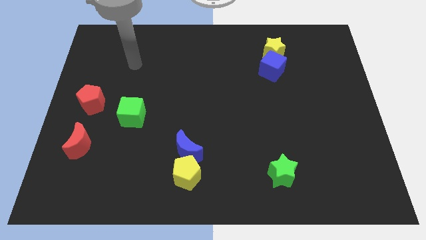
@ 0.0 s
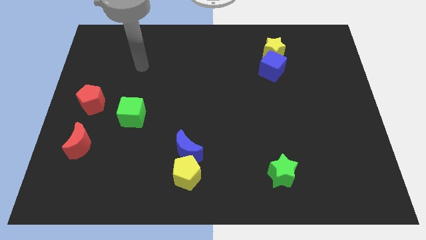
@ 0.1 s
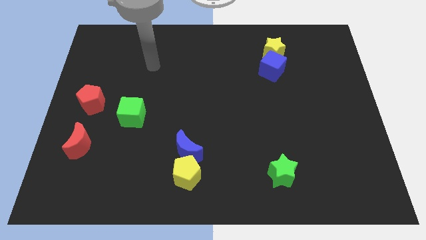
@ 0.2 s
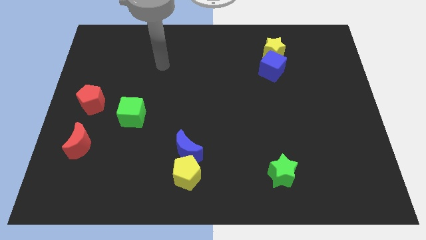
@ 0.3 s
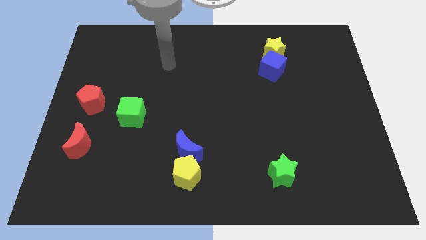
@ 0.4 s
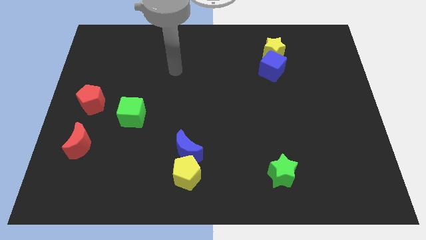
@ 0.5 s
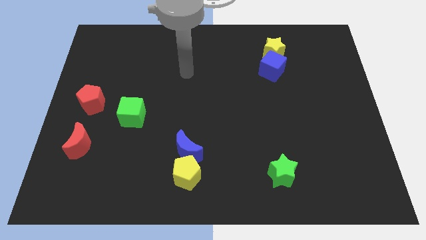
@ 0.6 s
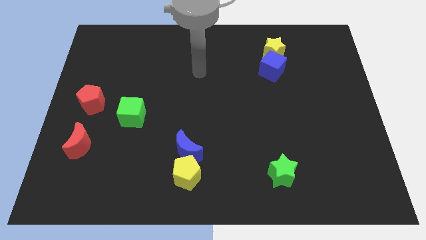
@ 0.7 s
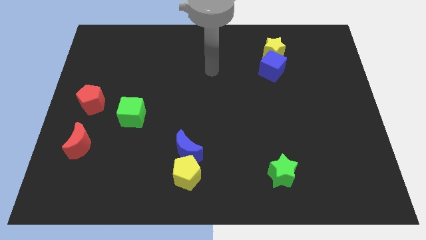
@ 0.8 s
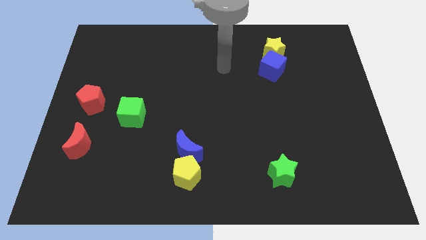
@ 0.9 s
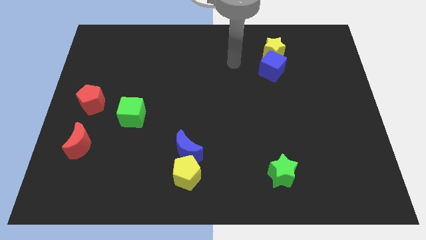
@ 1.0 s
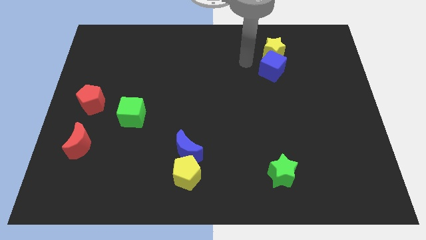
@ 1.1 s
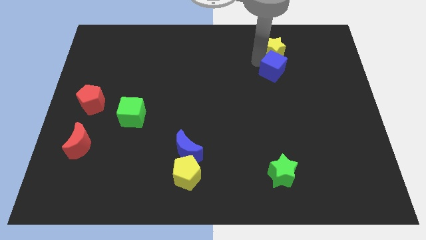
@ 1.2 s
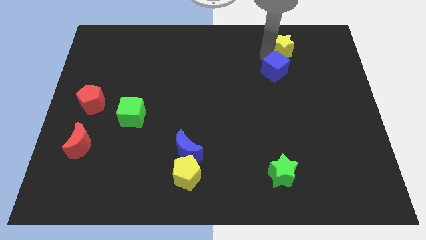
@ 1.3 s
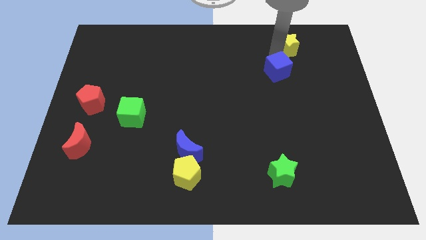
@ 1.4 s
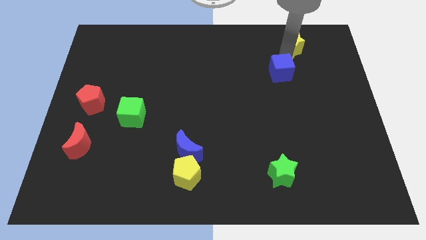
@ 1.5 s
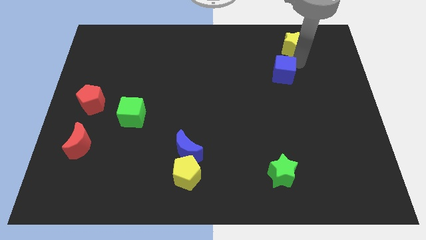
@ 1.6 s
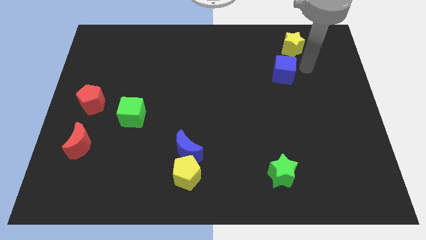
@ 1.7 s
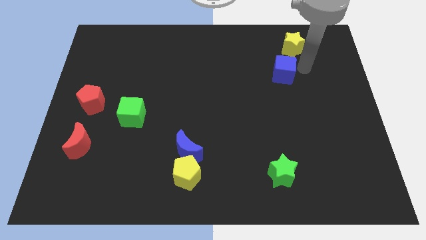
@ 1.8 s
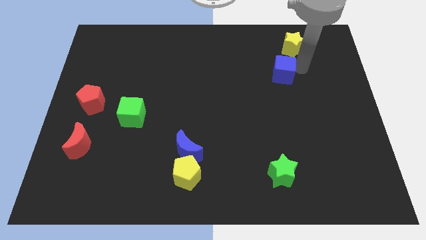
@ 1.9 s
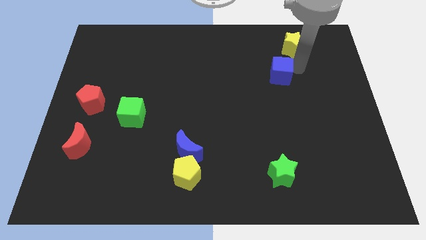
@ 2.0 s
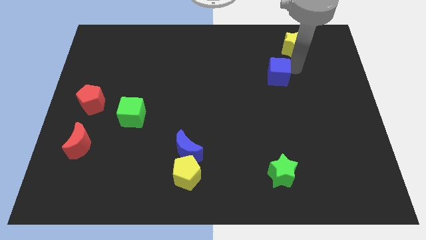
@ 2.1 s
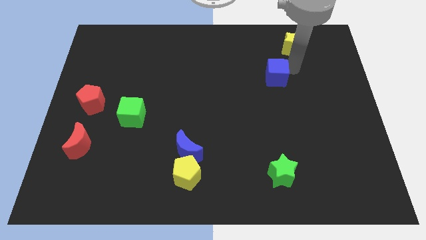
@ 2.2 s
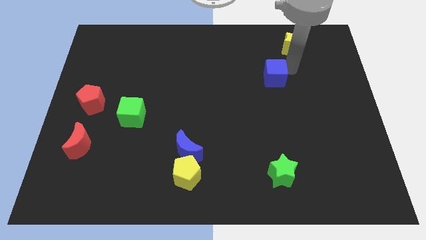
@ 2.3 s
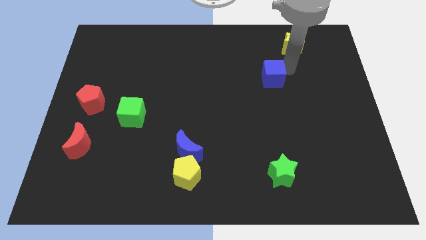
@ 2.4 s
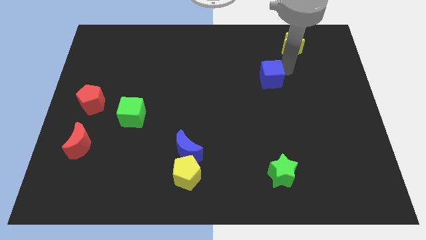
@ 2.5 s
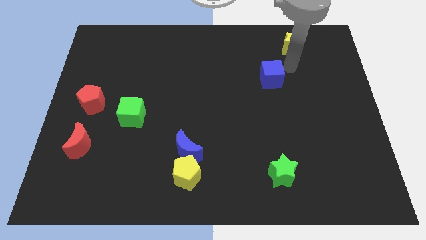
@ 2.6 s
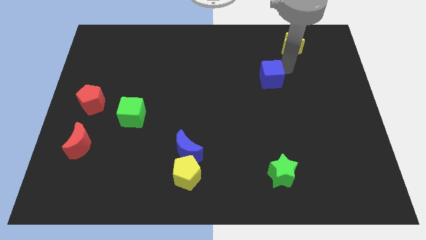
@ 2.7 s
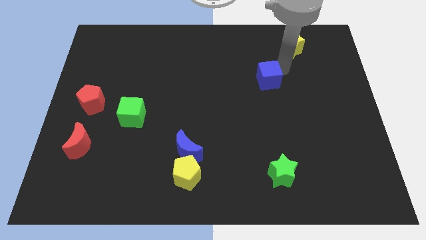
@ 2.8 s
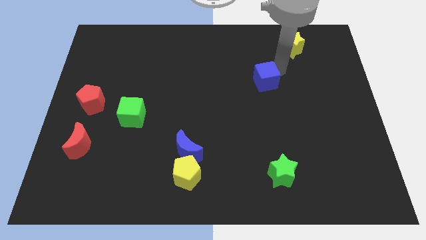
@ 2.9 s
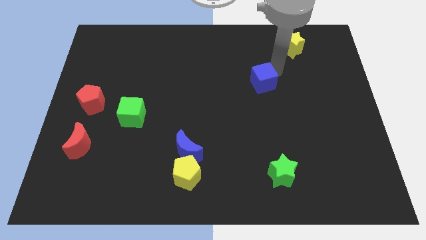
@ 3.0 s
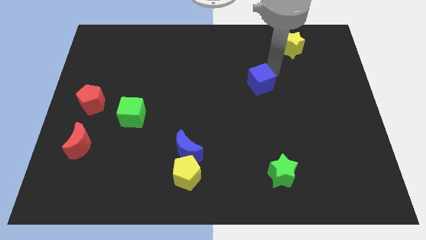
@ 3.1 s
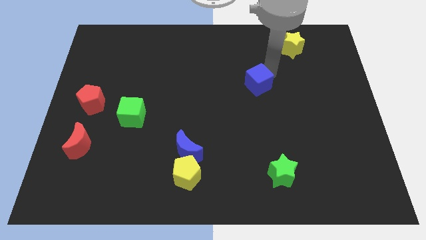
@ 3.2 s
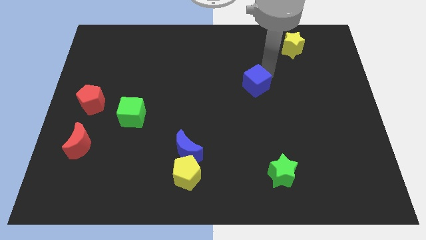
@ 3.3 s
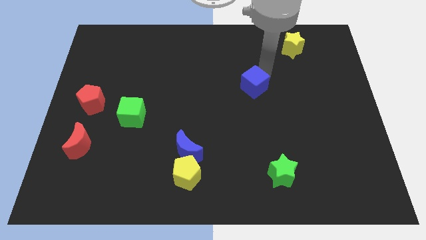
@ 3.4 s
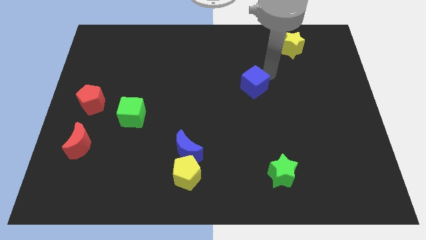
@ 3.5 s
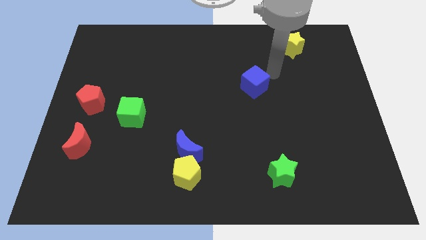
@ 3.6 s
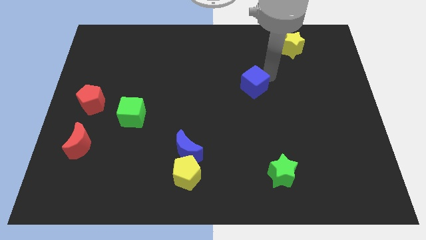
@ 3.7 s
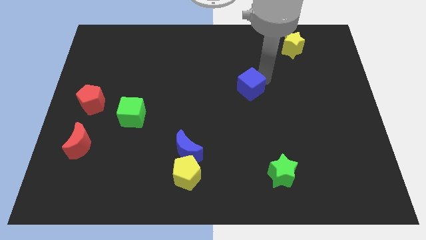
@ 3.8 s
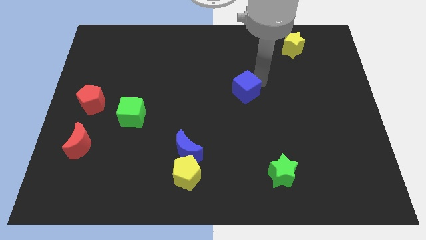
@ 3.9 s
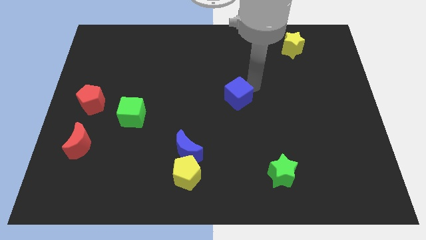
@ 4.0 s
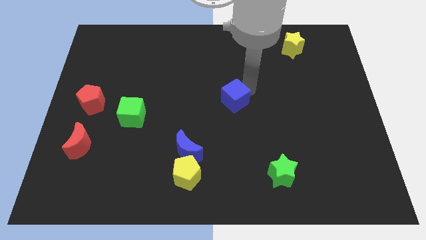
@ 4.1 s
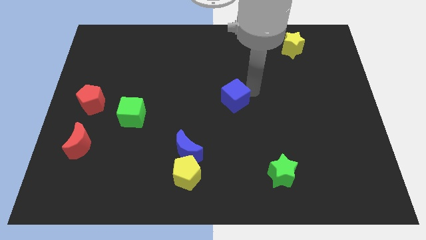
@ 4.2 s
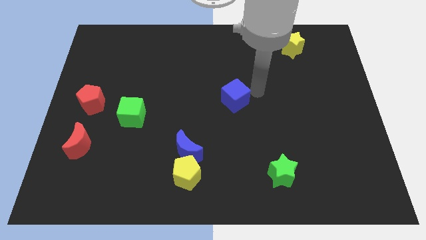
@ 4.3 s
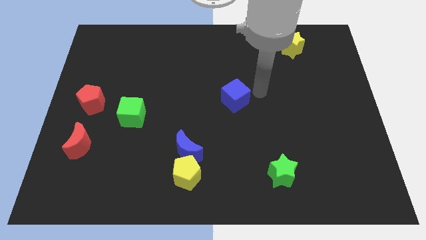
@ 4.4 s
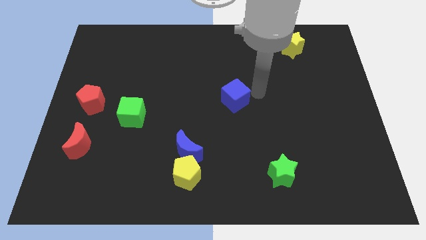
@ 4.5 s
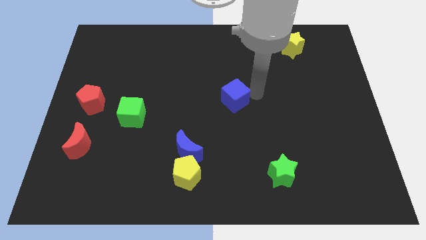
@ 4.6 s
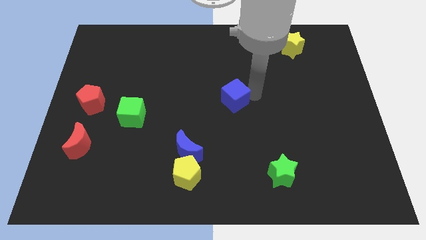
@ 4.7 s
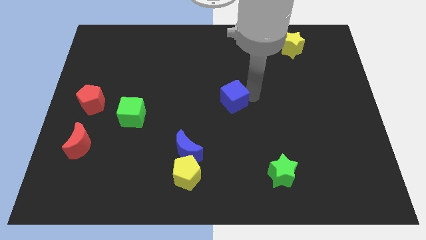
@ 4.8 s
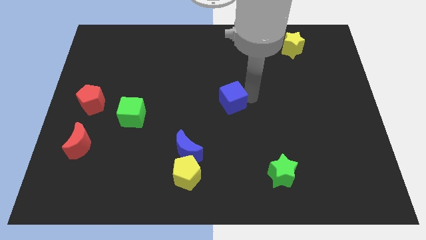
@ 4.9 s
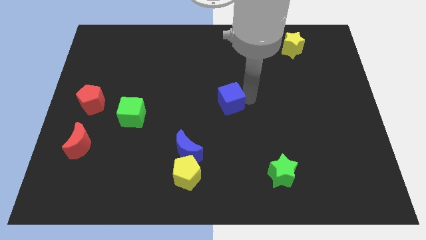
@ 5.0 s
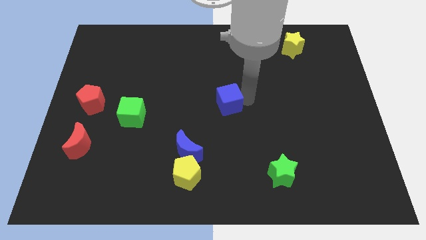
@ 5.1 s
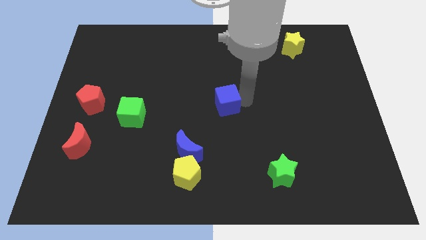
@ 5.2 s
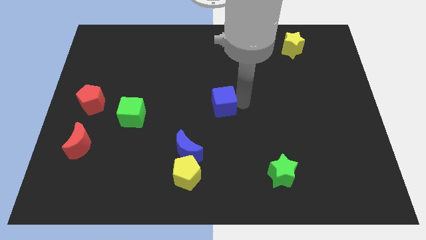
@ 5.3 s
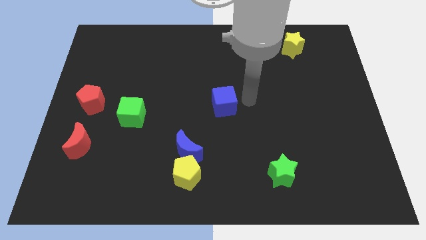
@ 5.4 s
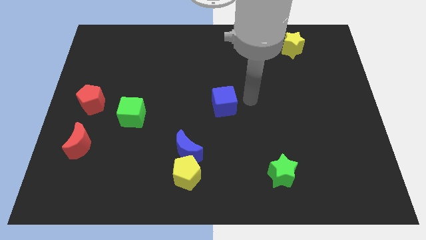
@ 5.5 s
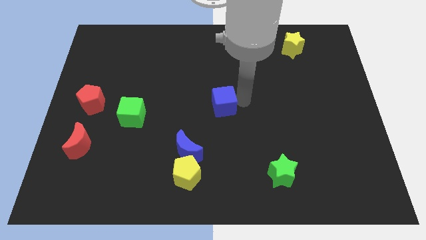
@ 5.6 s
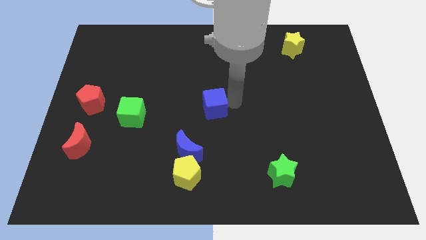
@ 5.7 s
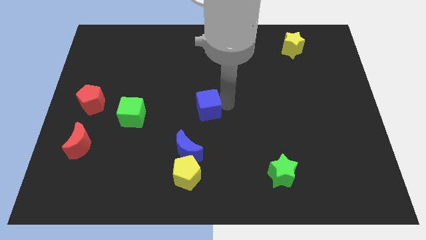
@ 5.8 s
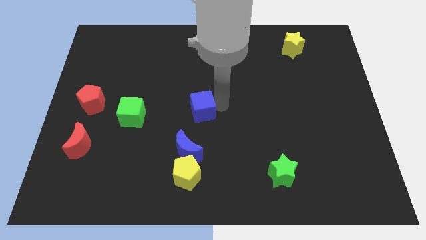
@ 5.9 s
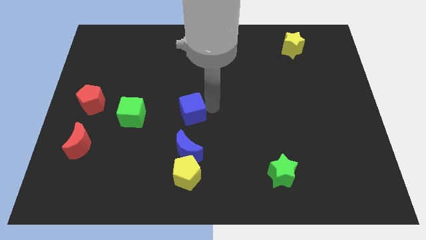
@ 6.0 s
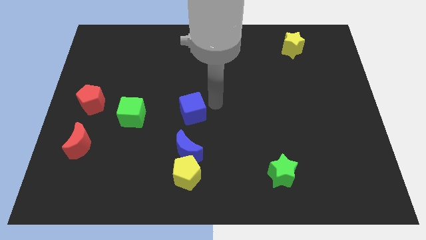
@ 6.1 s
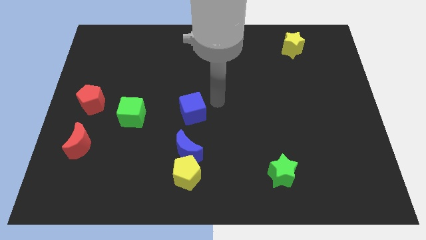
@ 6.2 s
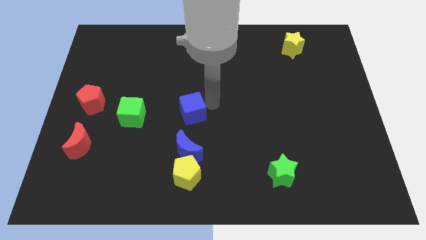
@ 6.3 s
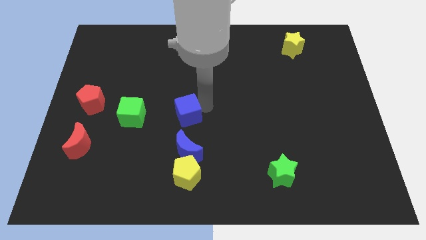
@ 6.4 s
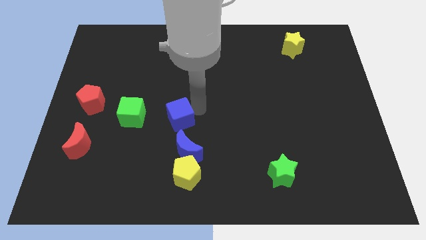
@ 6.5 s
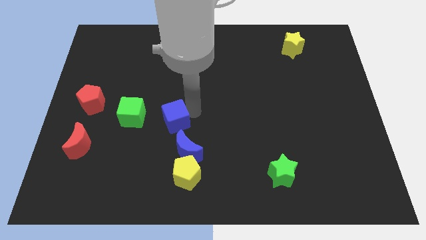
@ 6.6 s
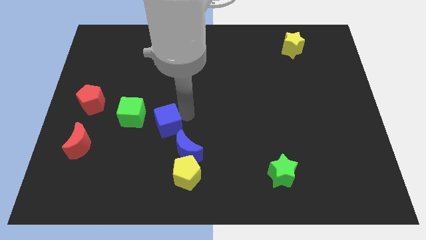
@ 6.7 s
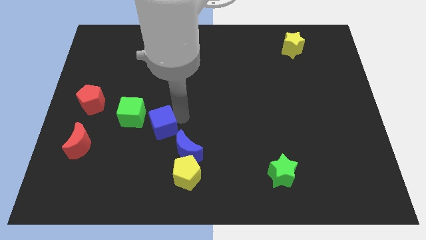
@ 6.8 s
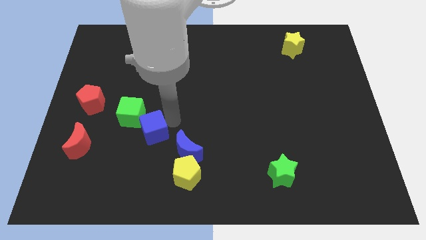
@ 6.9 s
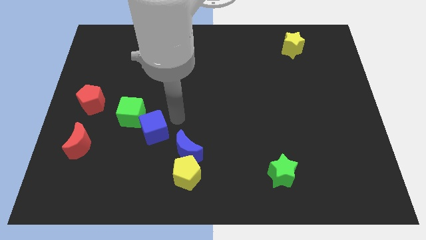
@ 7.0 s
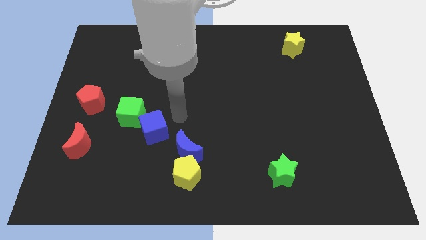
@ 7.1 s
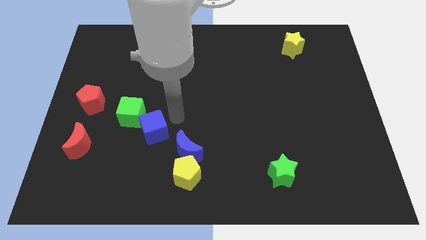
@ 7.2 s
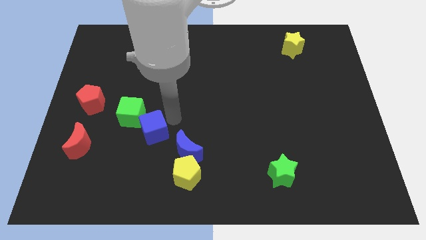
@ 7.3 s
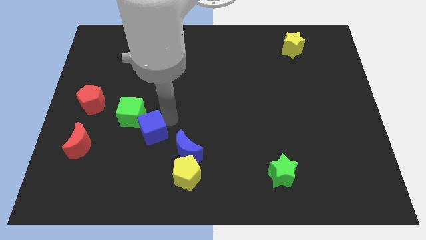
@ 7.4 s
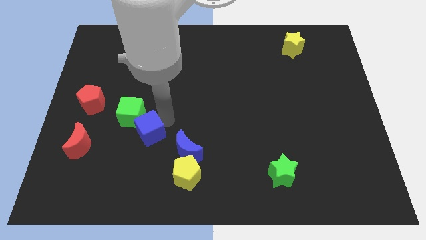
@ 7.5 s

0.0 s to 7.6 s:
put the blue cube right of the red moon

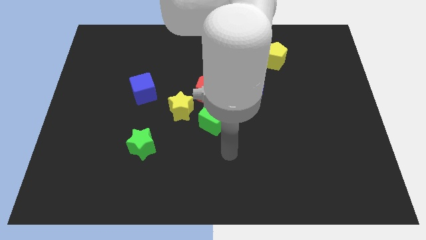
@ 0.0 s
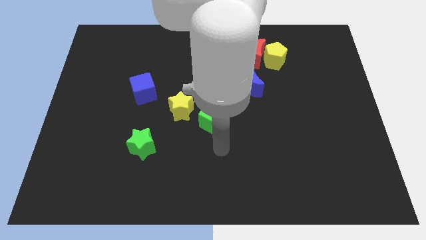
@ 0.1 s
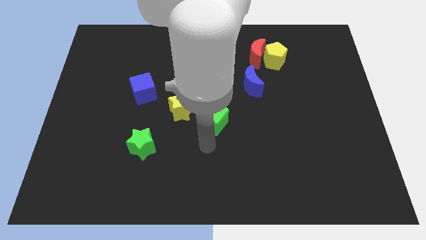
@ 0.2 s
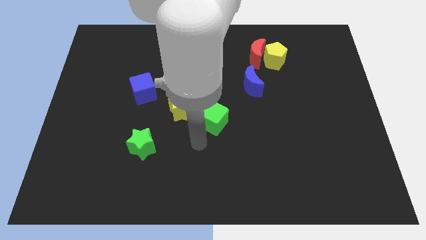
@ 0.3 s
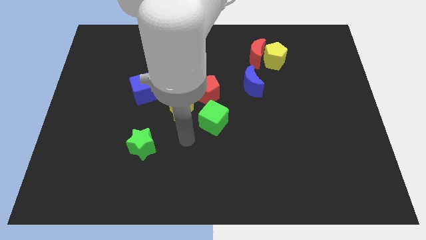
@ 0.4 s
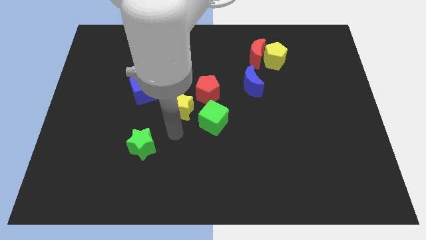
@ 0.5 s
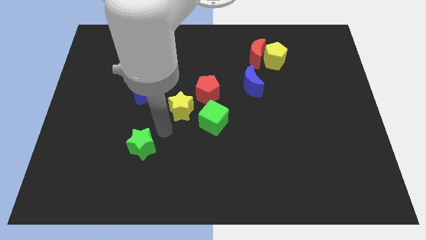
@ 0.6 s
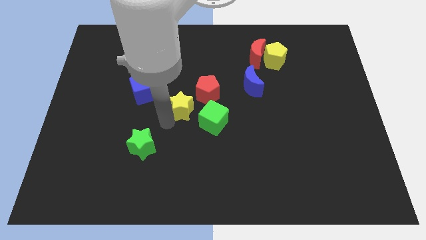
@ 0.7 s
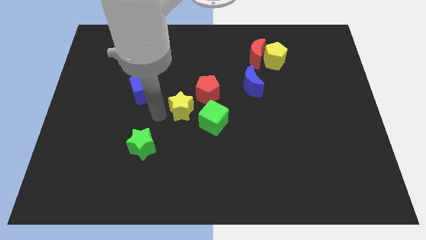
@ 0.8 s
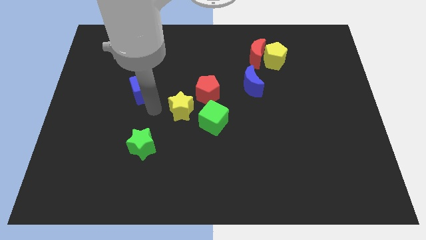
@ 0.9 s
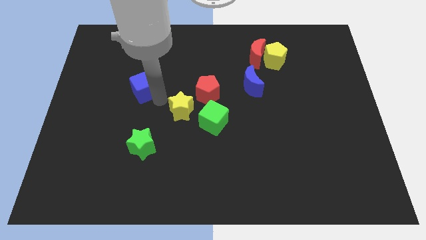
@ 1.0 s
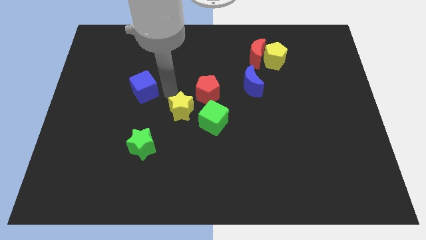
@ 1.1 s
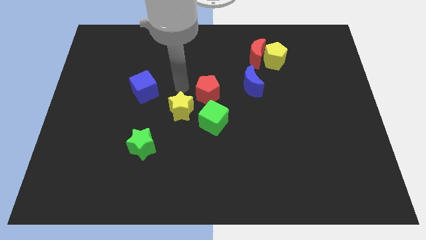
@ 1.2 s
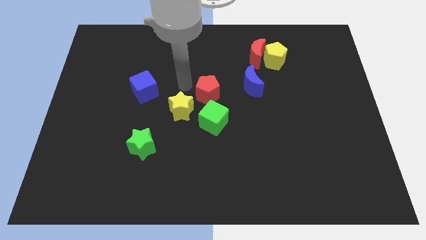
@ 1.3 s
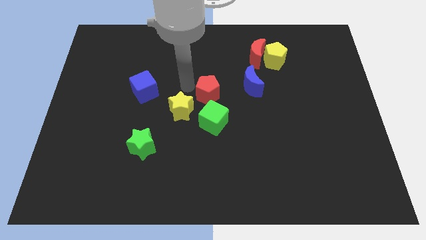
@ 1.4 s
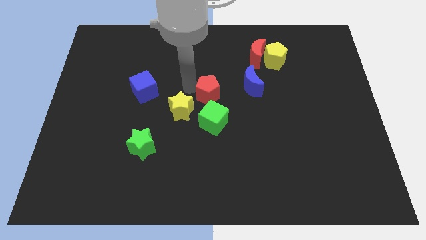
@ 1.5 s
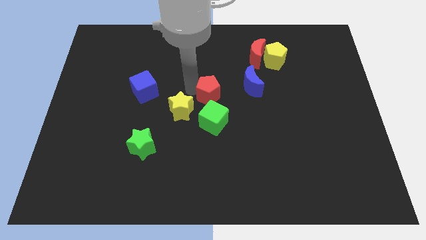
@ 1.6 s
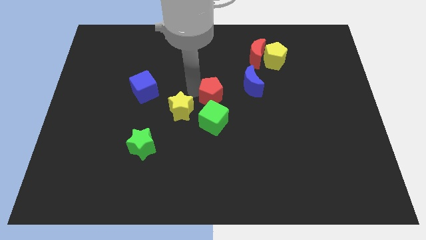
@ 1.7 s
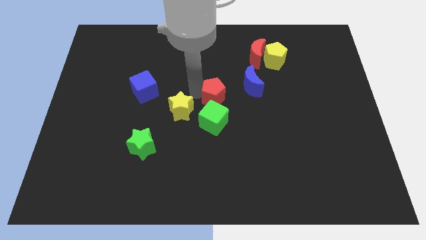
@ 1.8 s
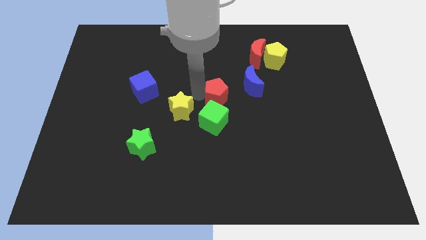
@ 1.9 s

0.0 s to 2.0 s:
put the red pentagon diagonally up and to the right of the green cube
